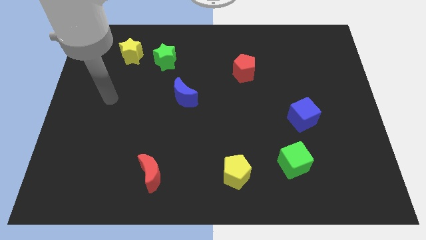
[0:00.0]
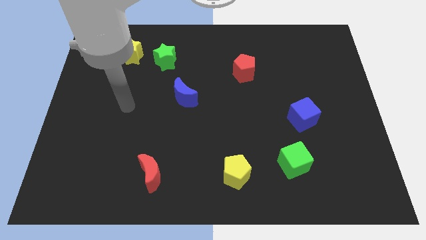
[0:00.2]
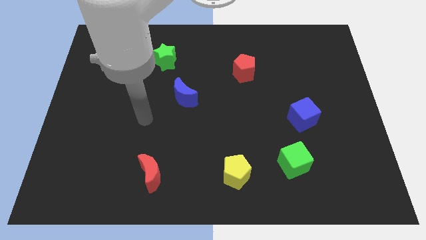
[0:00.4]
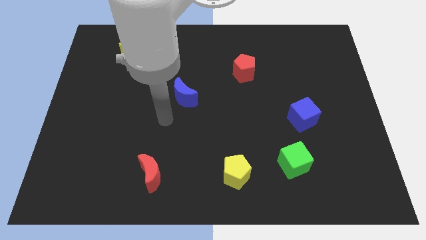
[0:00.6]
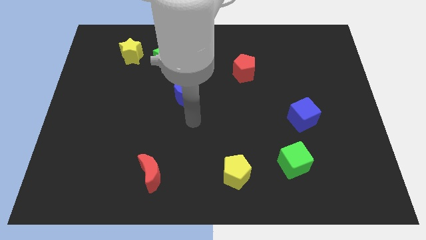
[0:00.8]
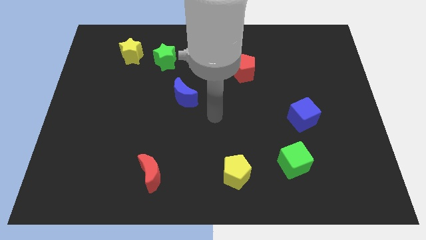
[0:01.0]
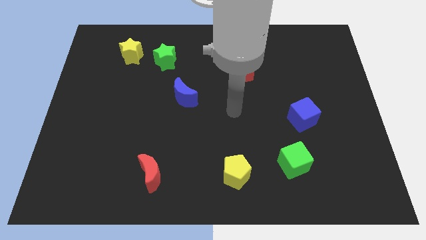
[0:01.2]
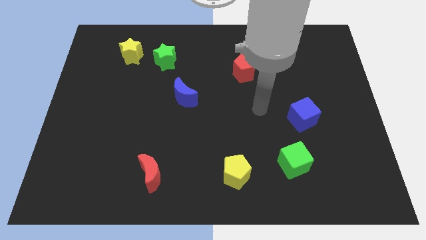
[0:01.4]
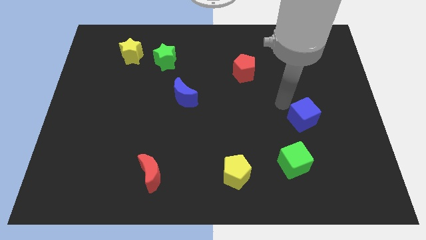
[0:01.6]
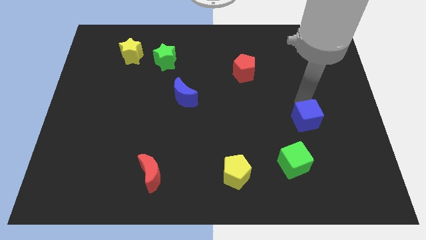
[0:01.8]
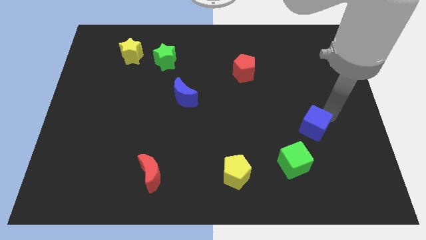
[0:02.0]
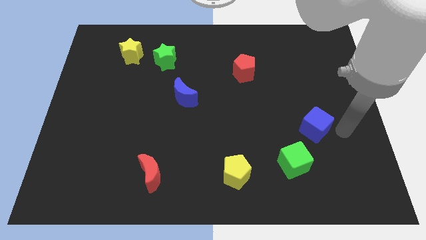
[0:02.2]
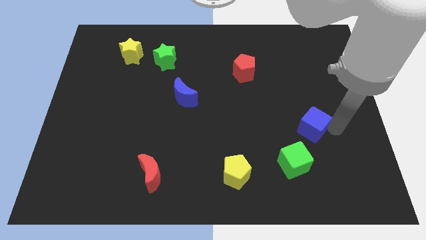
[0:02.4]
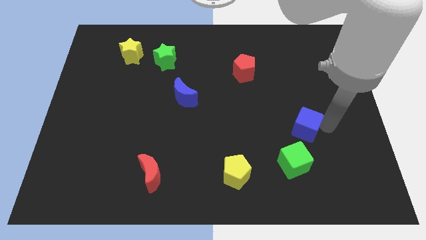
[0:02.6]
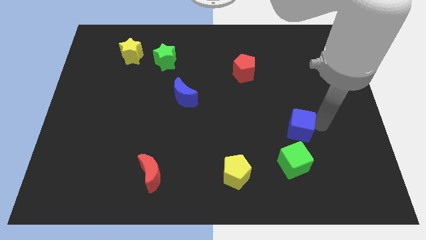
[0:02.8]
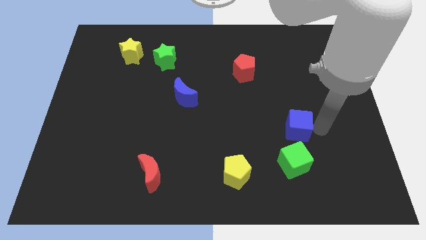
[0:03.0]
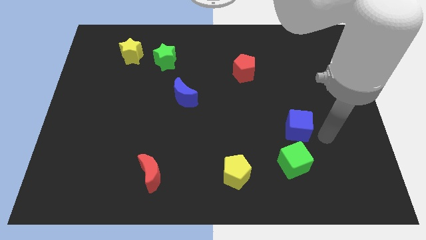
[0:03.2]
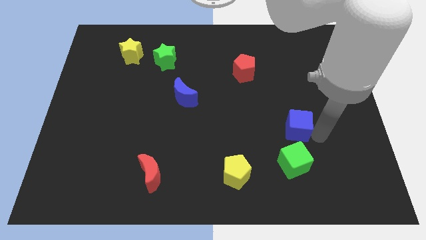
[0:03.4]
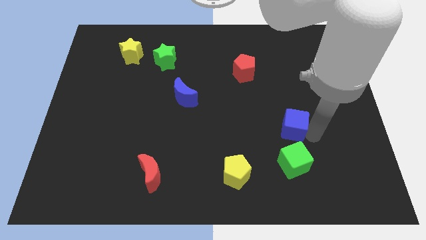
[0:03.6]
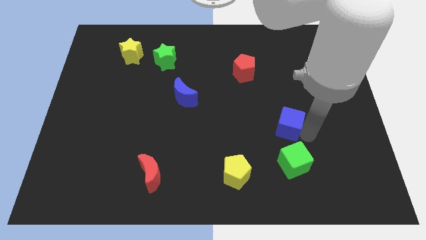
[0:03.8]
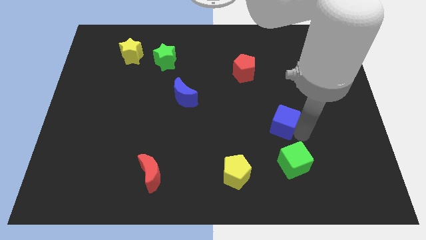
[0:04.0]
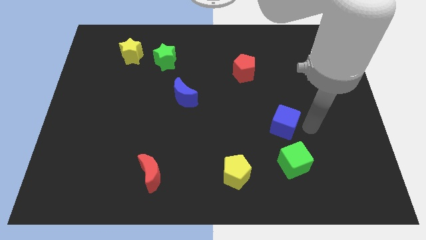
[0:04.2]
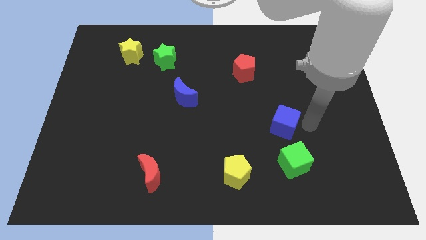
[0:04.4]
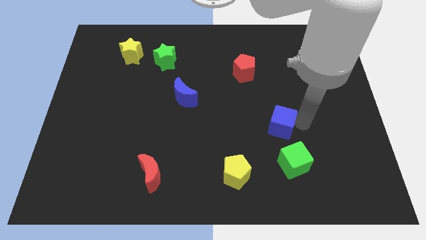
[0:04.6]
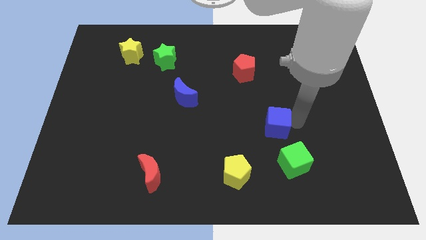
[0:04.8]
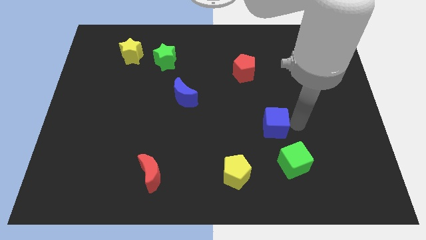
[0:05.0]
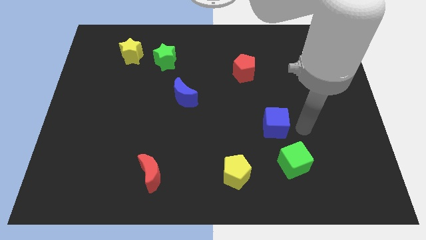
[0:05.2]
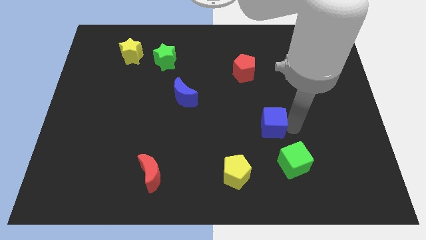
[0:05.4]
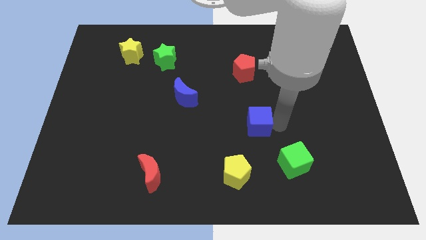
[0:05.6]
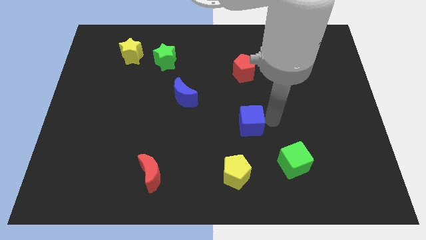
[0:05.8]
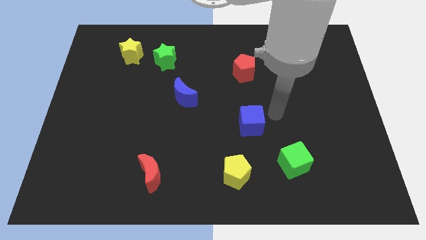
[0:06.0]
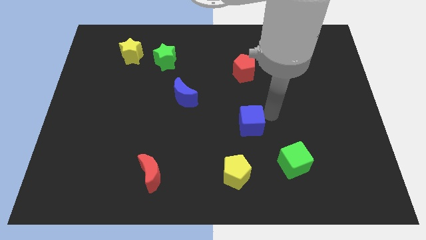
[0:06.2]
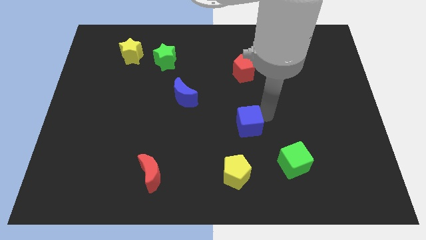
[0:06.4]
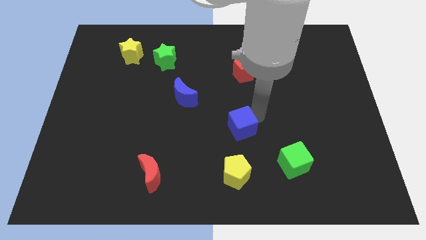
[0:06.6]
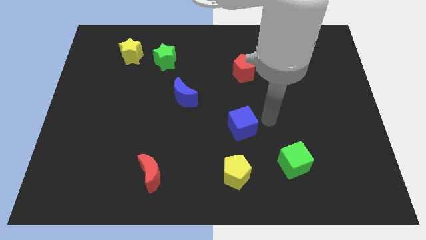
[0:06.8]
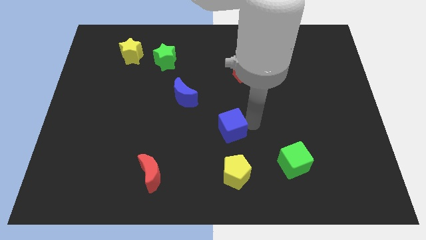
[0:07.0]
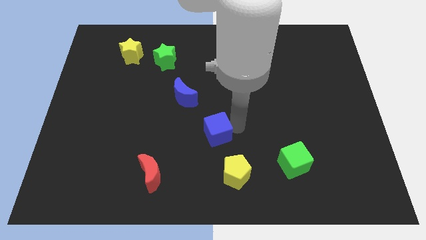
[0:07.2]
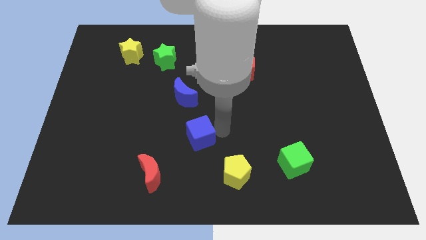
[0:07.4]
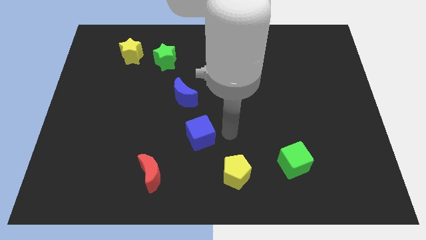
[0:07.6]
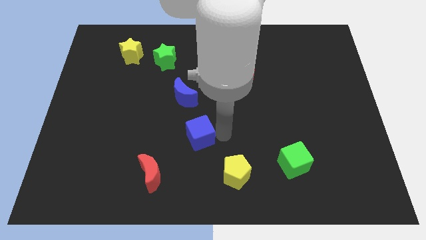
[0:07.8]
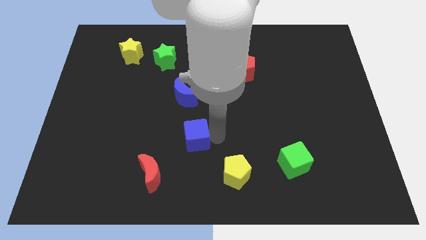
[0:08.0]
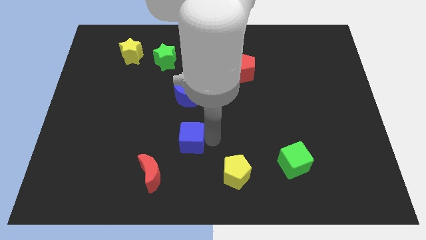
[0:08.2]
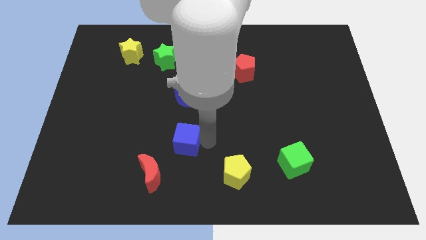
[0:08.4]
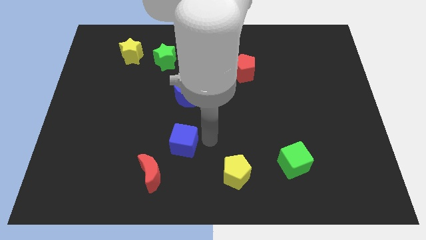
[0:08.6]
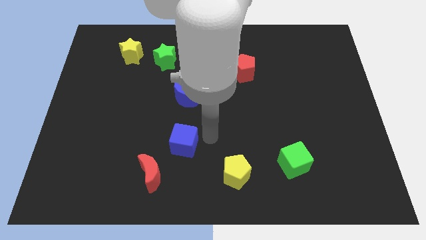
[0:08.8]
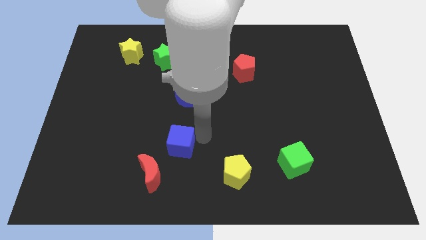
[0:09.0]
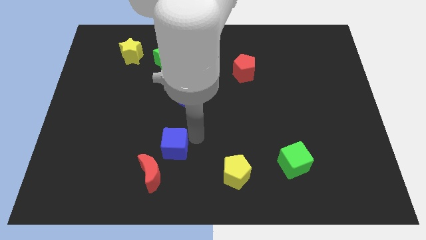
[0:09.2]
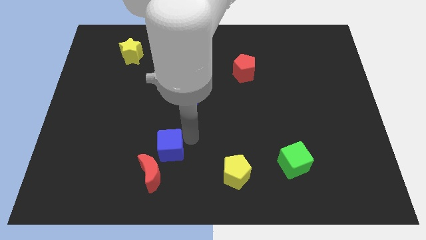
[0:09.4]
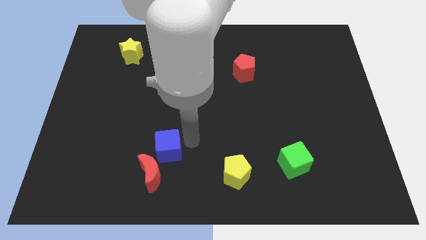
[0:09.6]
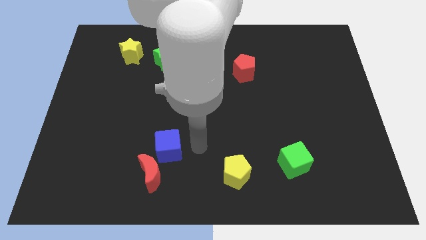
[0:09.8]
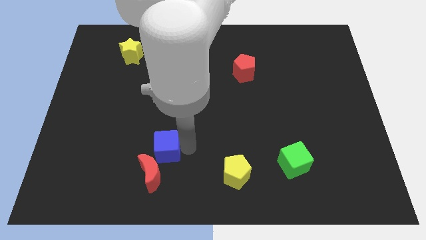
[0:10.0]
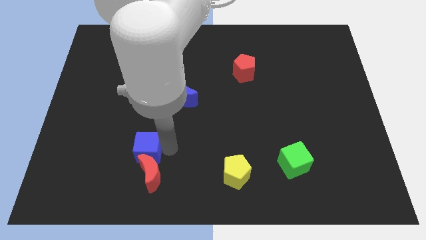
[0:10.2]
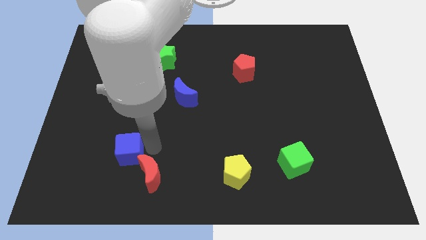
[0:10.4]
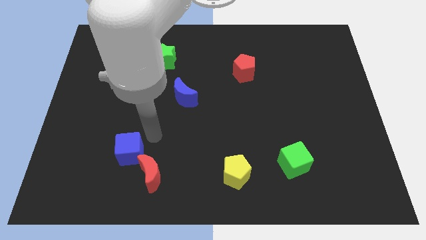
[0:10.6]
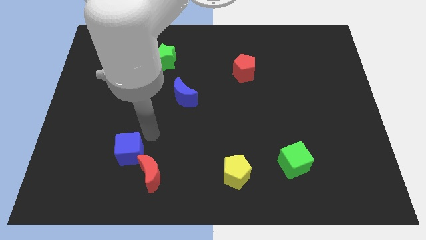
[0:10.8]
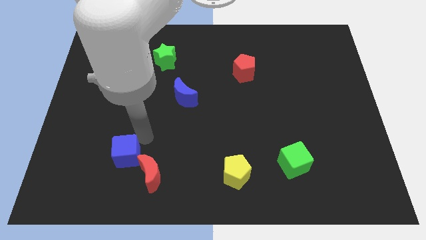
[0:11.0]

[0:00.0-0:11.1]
put the blue cube to the left side of the red moon

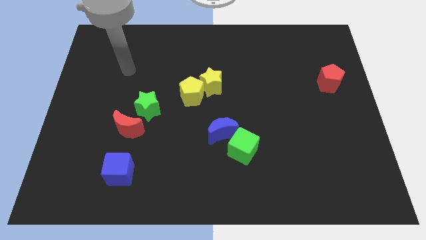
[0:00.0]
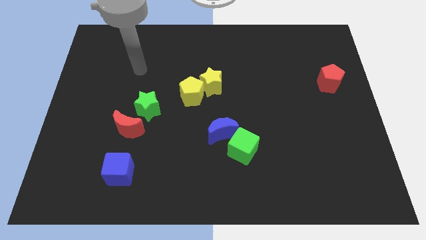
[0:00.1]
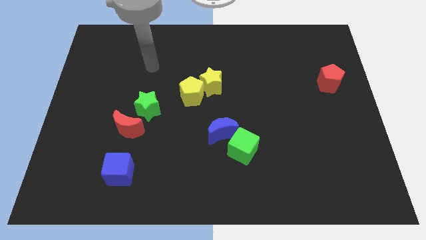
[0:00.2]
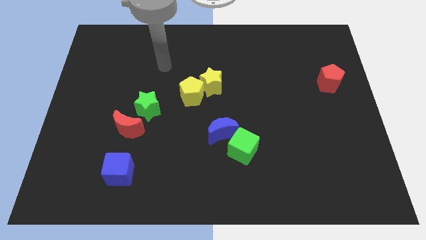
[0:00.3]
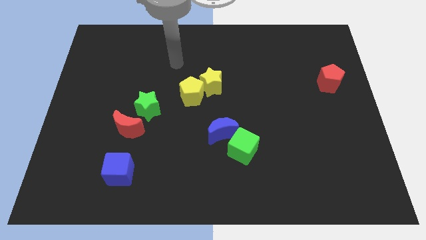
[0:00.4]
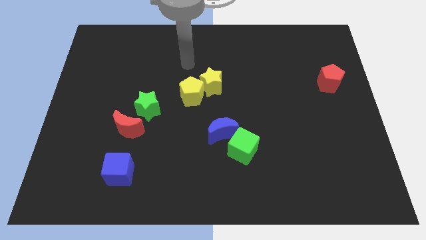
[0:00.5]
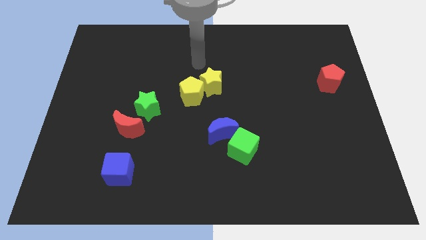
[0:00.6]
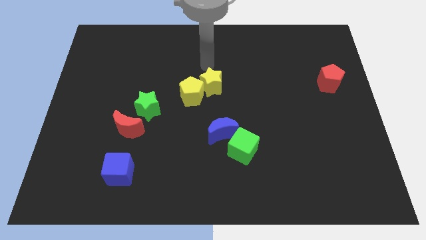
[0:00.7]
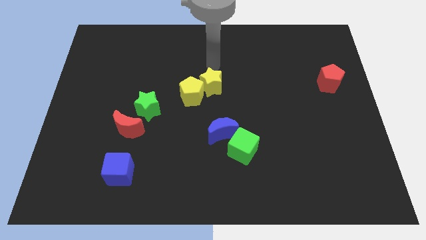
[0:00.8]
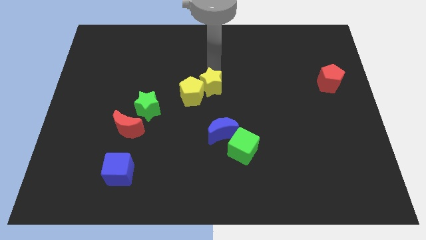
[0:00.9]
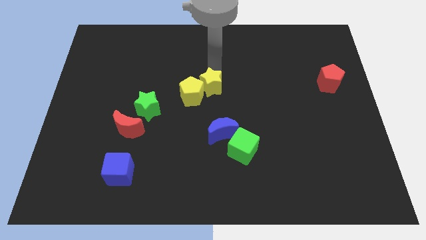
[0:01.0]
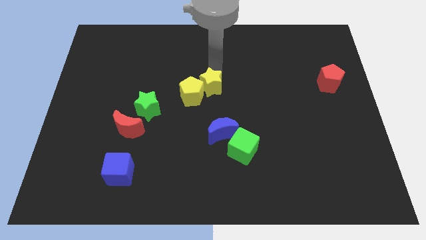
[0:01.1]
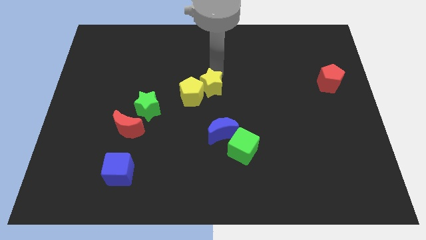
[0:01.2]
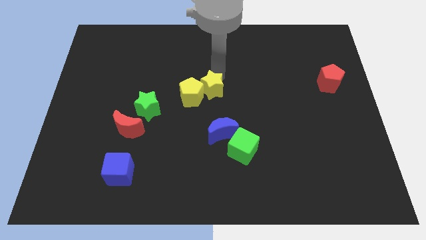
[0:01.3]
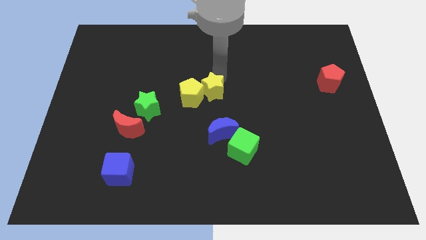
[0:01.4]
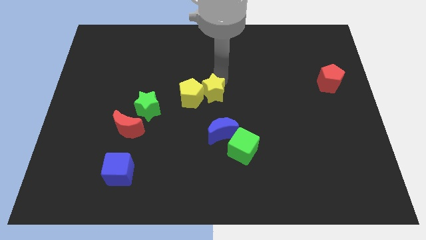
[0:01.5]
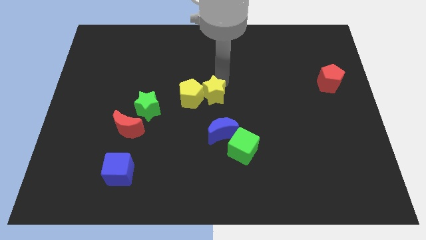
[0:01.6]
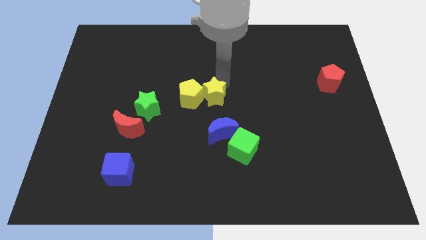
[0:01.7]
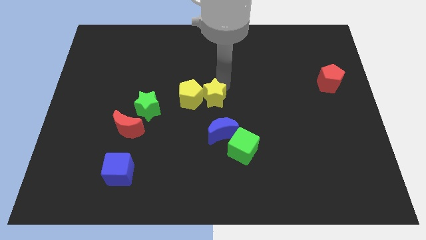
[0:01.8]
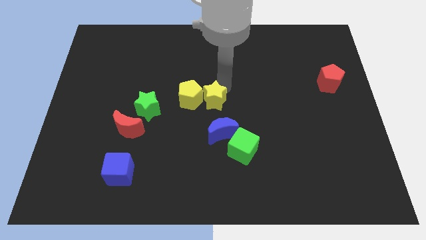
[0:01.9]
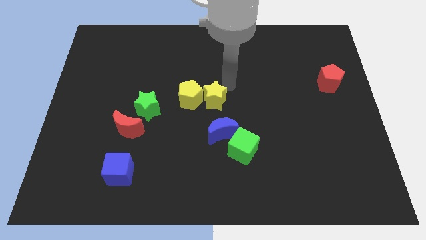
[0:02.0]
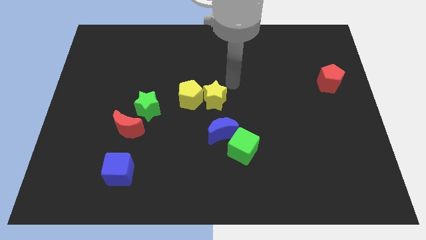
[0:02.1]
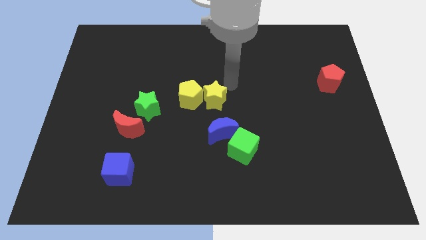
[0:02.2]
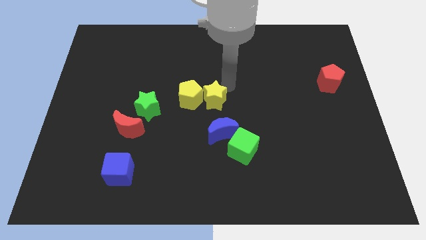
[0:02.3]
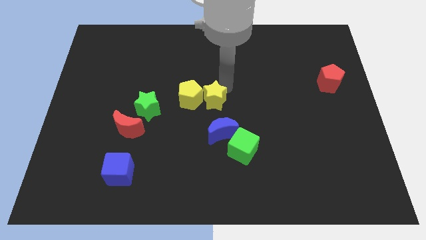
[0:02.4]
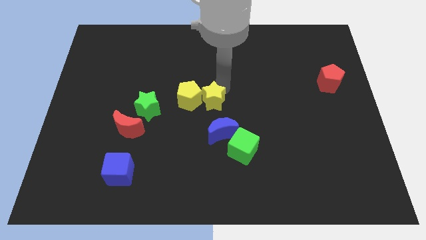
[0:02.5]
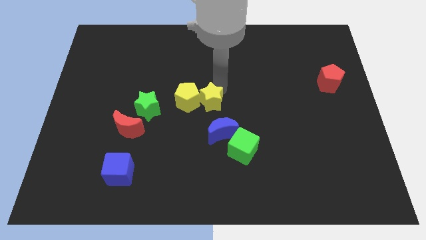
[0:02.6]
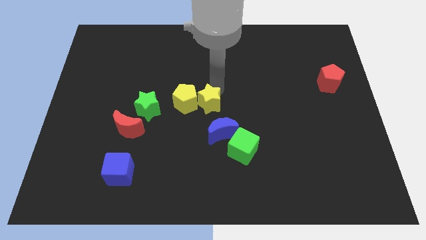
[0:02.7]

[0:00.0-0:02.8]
slide the yellow star diagonally up and to the left of the blue moon
